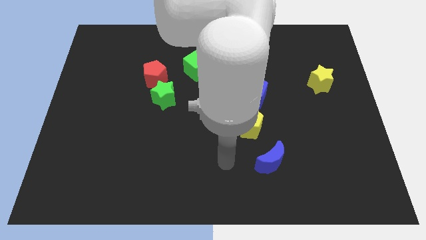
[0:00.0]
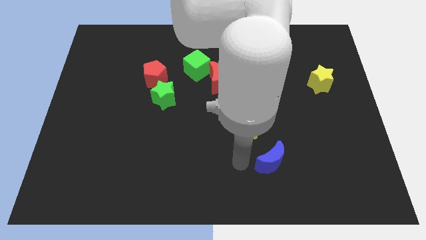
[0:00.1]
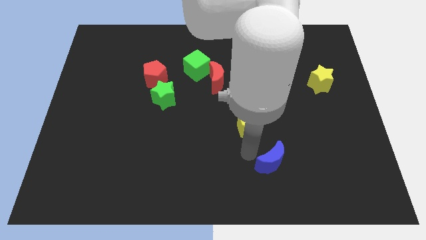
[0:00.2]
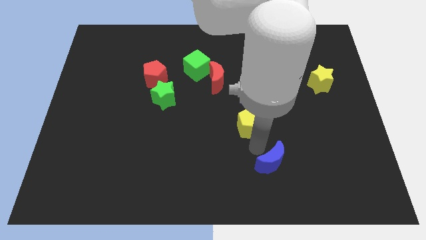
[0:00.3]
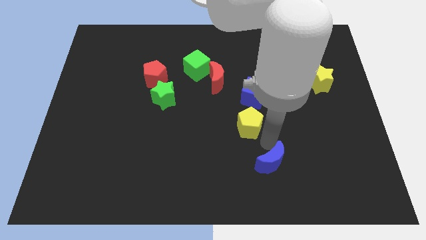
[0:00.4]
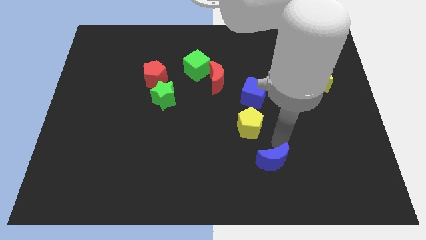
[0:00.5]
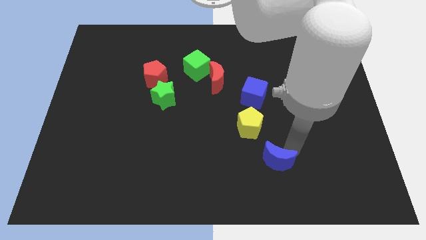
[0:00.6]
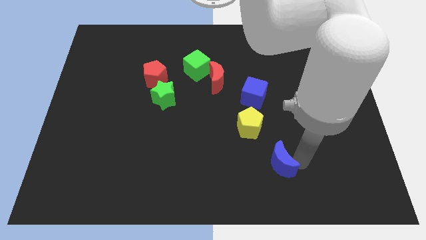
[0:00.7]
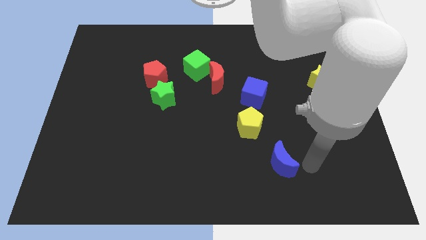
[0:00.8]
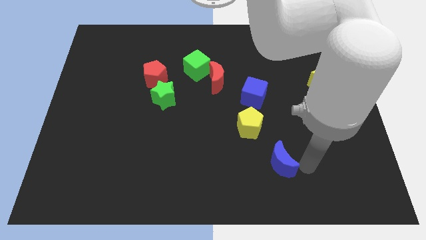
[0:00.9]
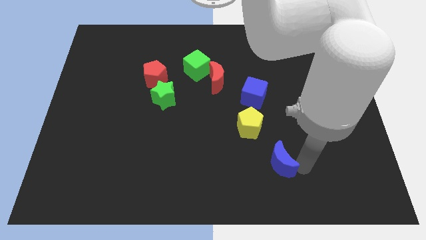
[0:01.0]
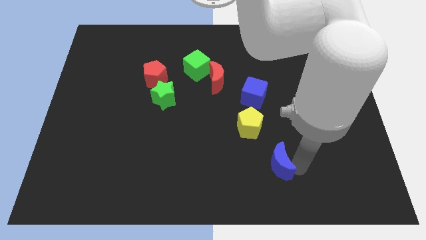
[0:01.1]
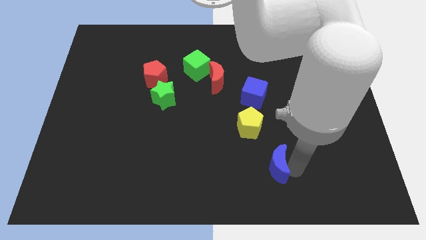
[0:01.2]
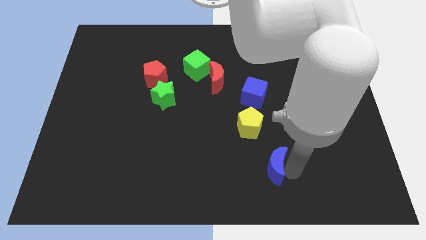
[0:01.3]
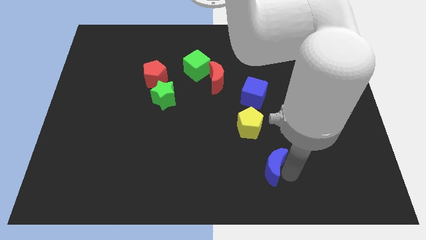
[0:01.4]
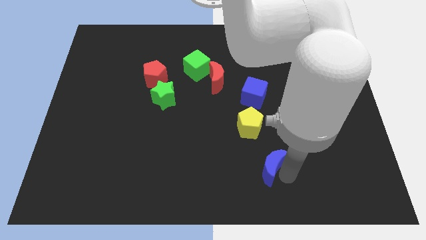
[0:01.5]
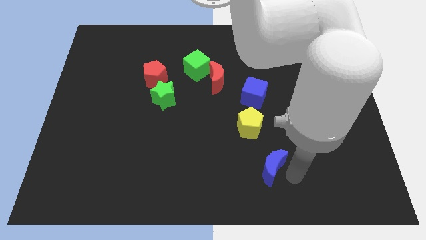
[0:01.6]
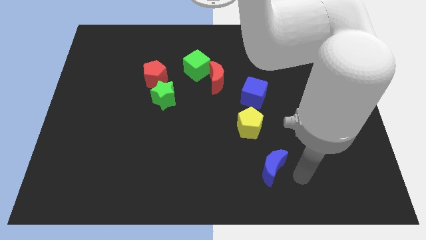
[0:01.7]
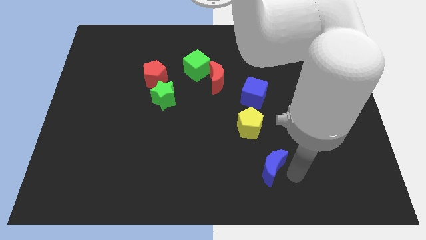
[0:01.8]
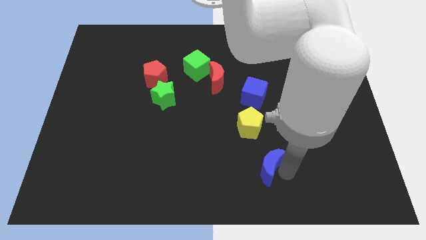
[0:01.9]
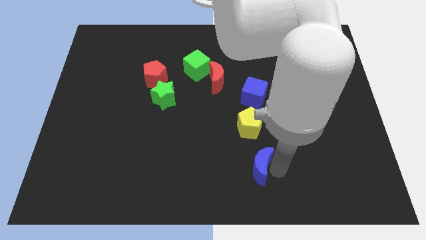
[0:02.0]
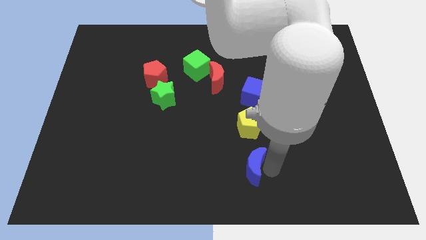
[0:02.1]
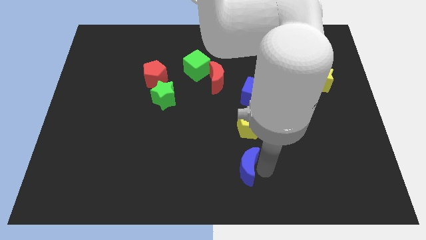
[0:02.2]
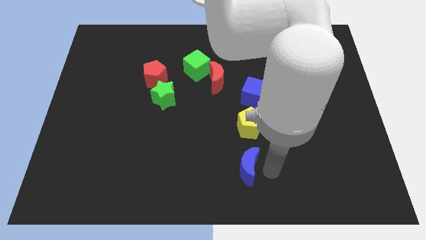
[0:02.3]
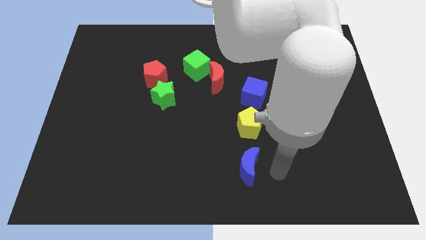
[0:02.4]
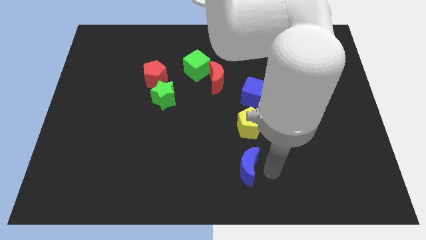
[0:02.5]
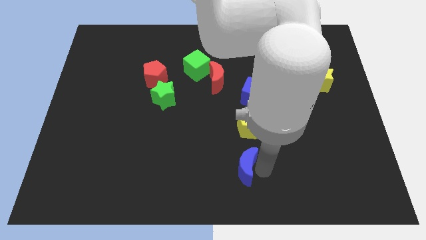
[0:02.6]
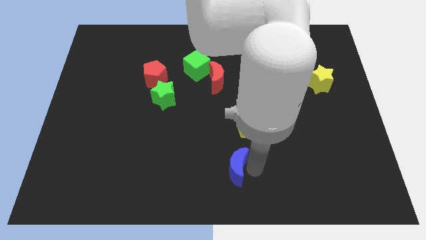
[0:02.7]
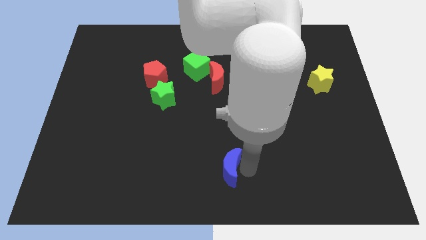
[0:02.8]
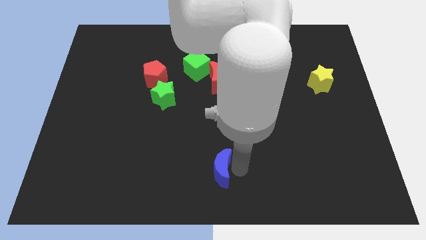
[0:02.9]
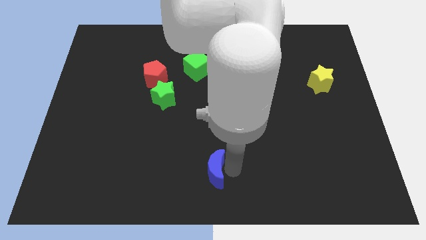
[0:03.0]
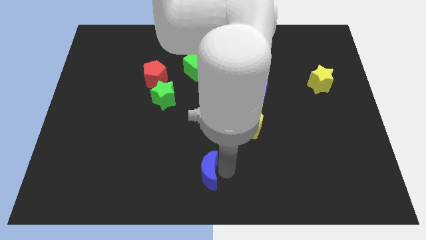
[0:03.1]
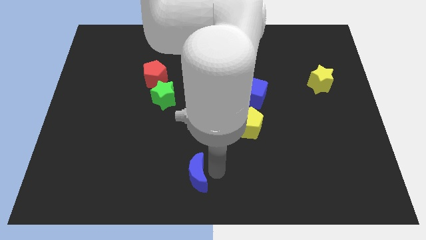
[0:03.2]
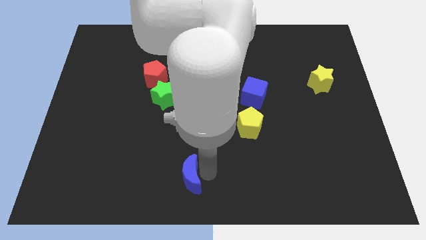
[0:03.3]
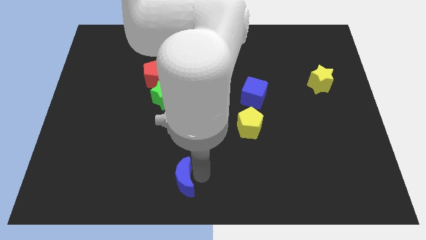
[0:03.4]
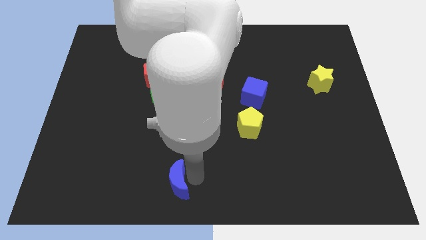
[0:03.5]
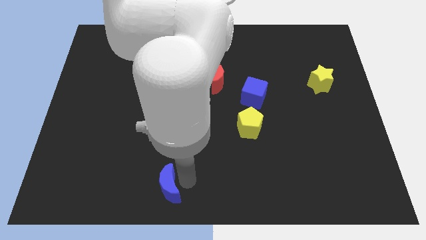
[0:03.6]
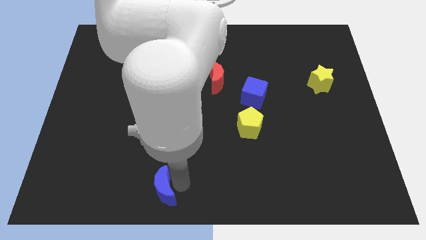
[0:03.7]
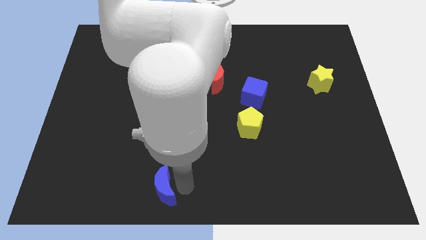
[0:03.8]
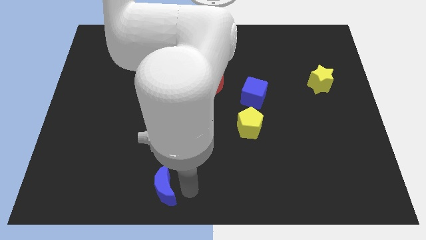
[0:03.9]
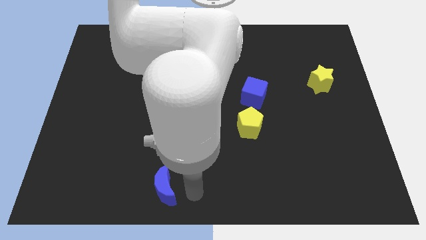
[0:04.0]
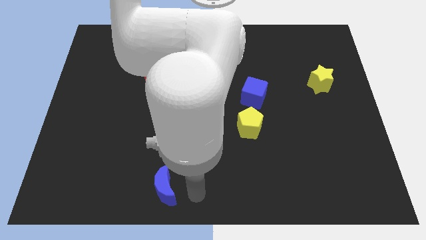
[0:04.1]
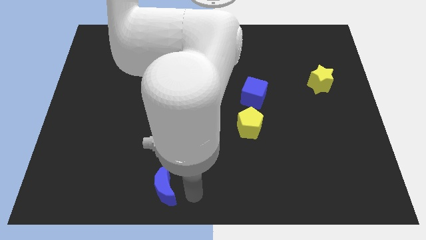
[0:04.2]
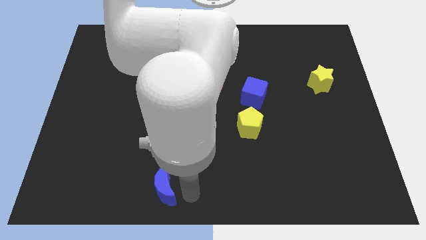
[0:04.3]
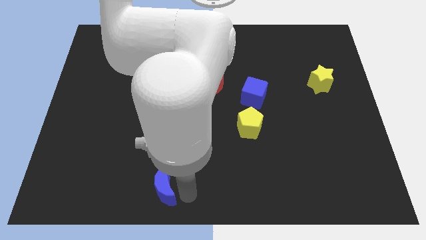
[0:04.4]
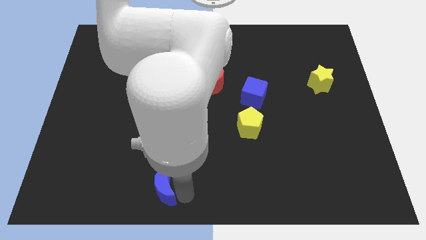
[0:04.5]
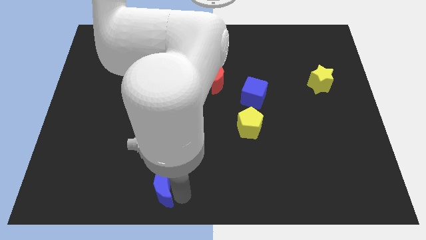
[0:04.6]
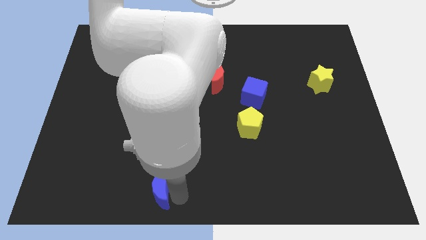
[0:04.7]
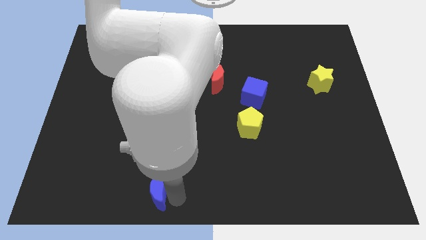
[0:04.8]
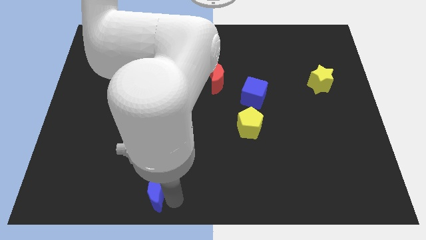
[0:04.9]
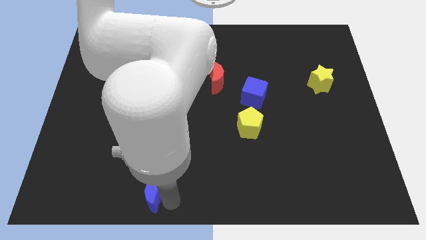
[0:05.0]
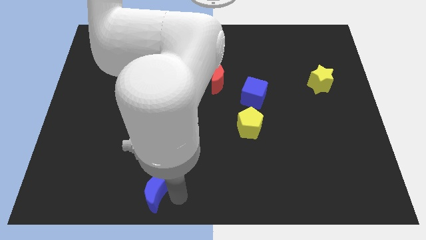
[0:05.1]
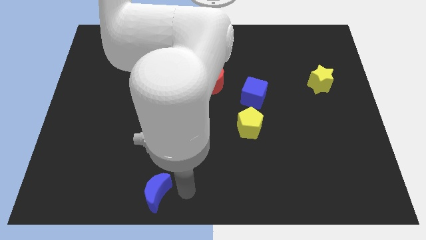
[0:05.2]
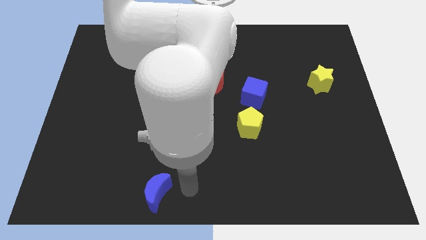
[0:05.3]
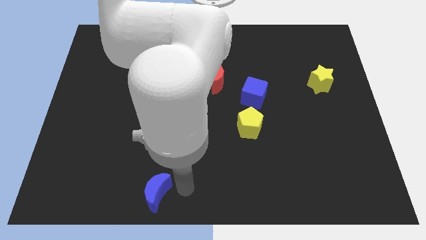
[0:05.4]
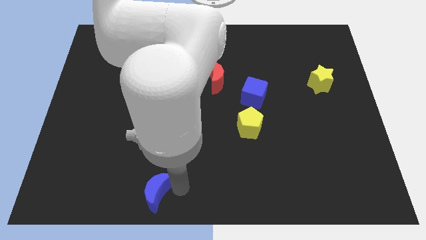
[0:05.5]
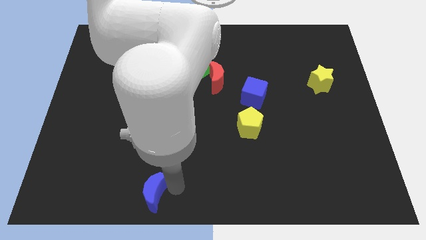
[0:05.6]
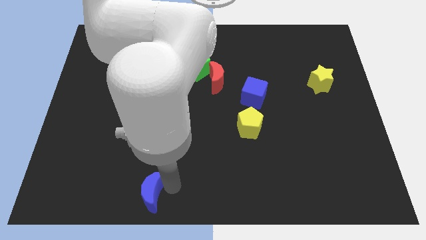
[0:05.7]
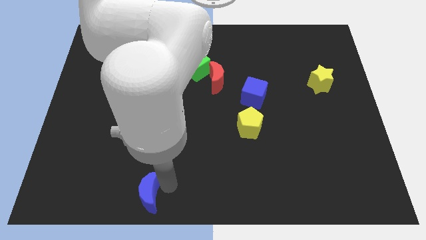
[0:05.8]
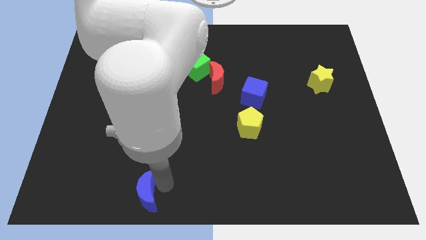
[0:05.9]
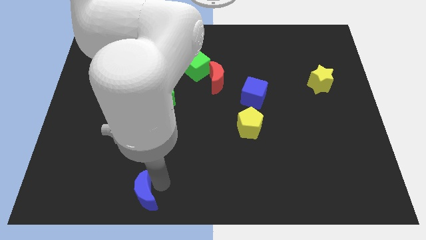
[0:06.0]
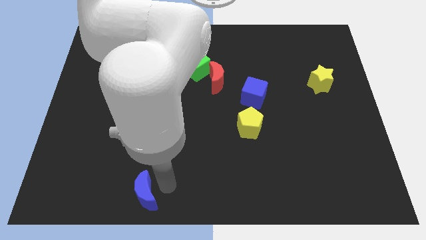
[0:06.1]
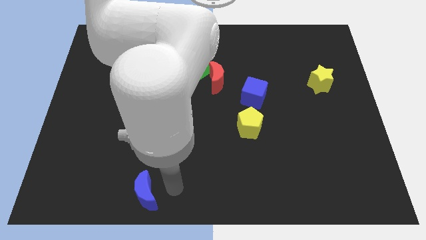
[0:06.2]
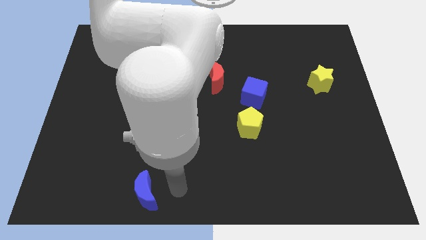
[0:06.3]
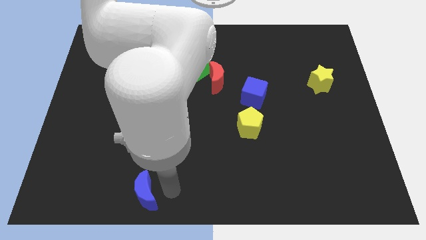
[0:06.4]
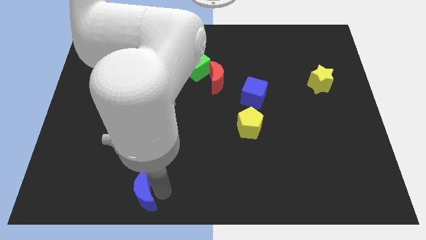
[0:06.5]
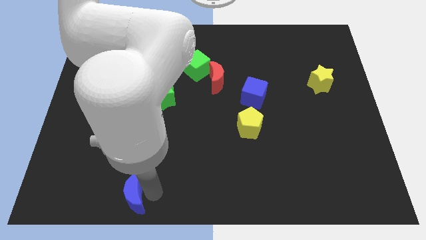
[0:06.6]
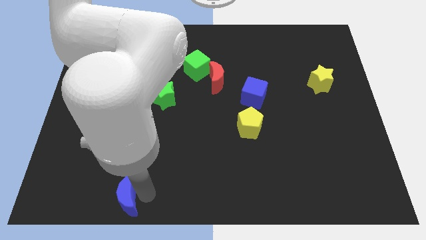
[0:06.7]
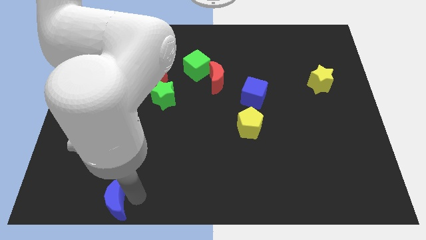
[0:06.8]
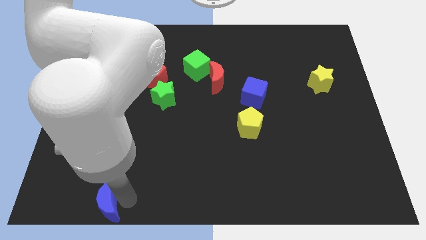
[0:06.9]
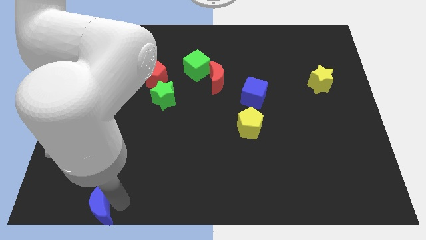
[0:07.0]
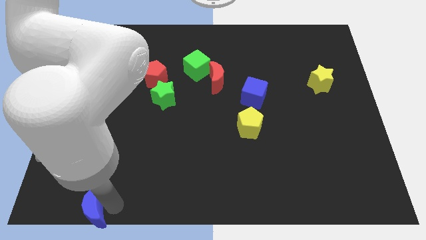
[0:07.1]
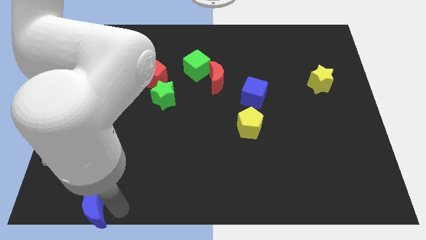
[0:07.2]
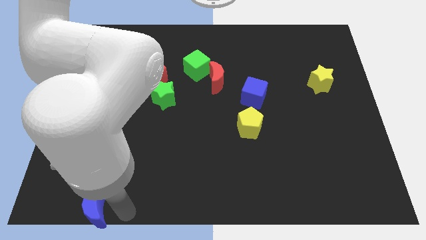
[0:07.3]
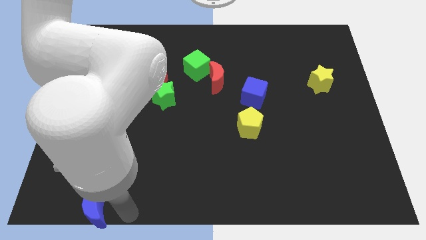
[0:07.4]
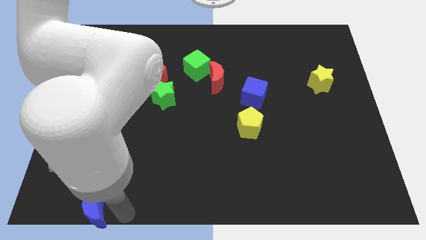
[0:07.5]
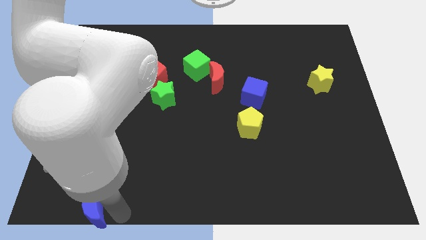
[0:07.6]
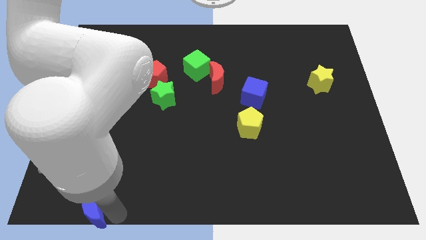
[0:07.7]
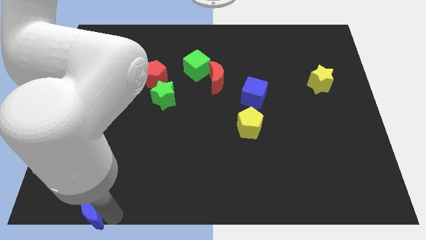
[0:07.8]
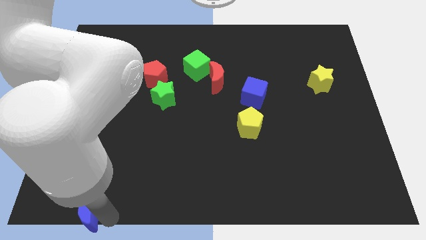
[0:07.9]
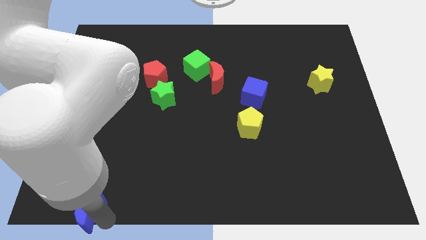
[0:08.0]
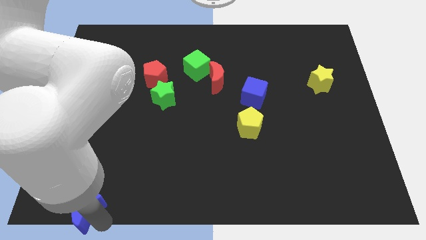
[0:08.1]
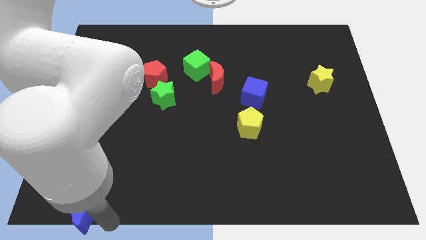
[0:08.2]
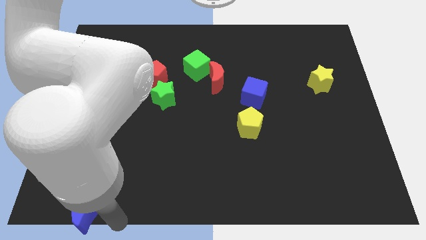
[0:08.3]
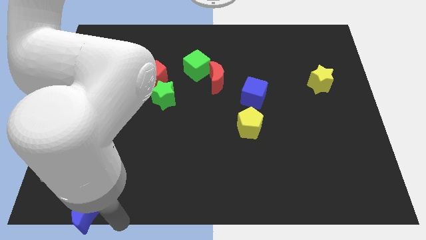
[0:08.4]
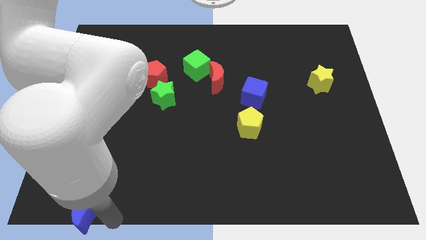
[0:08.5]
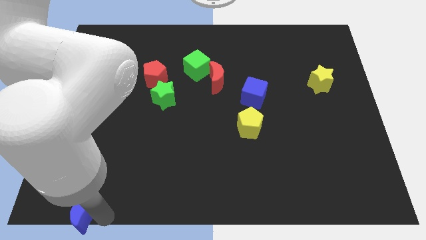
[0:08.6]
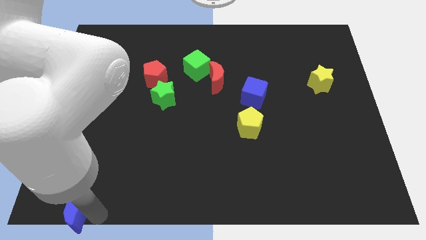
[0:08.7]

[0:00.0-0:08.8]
put the blue moon to the bottom left corner
